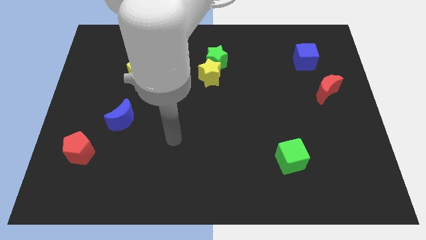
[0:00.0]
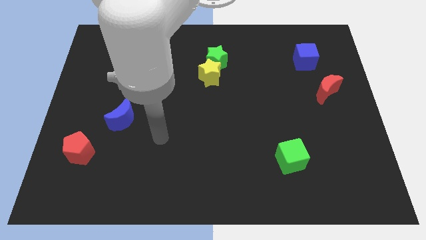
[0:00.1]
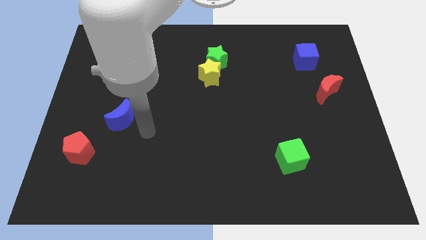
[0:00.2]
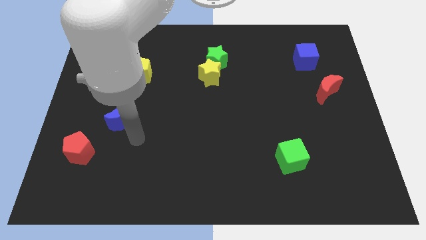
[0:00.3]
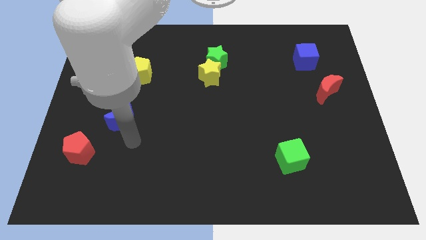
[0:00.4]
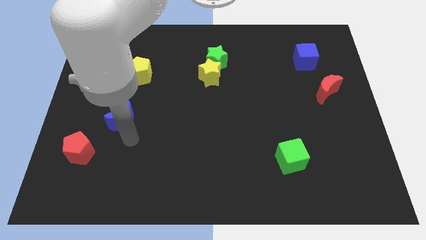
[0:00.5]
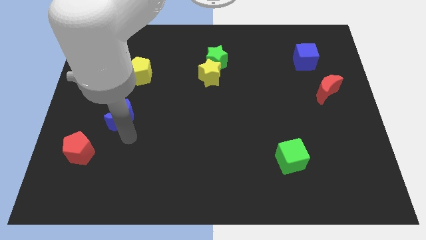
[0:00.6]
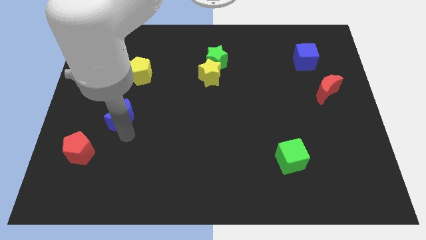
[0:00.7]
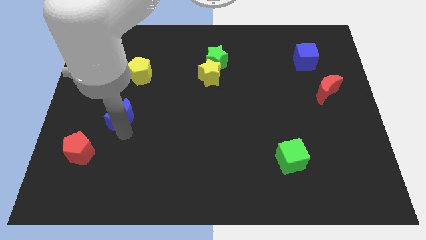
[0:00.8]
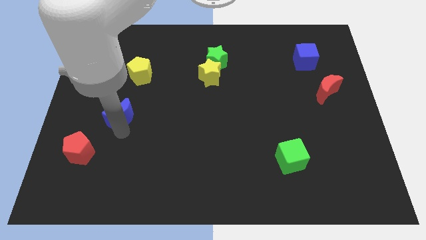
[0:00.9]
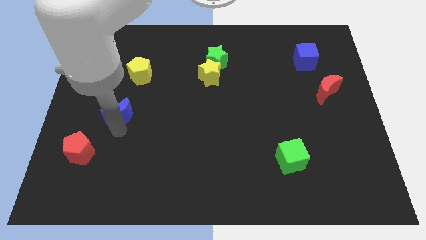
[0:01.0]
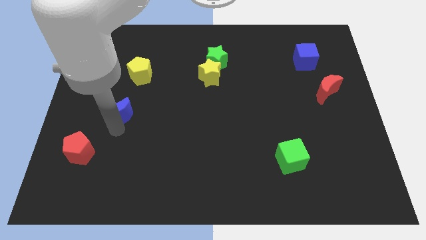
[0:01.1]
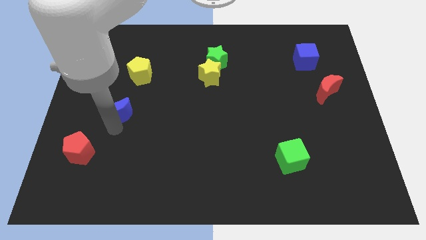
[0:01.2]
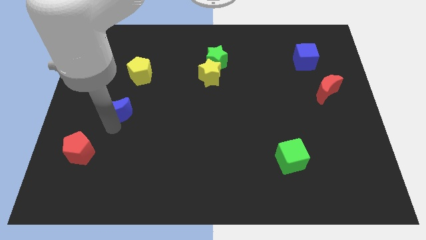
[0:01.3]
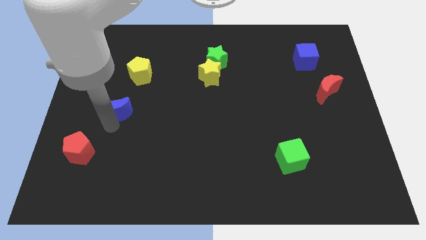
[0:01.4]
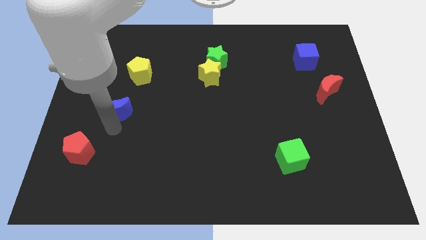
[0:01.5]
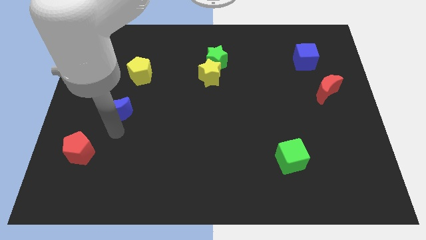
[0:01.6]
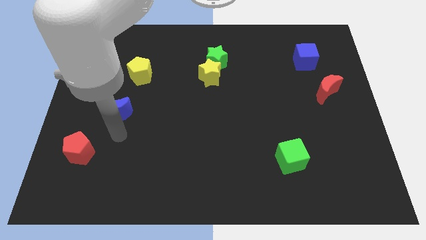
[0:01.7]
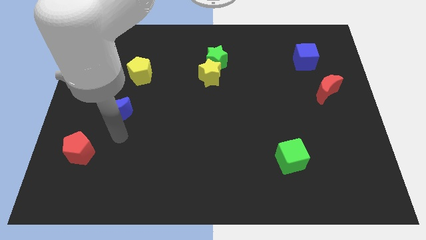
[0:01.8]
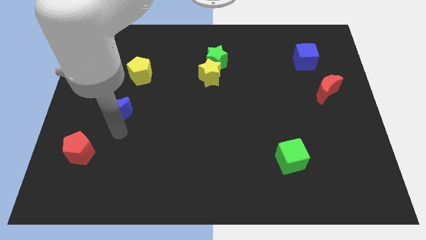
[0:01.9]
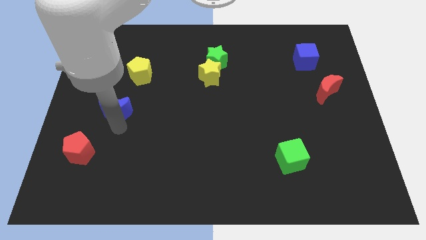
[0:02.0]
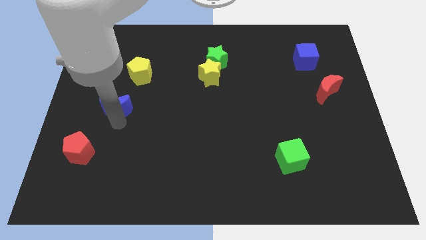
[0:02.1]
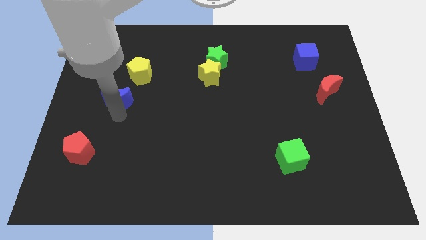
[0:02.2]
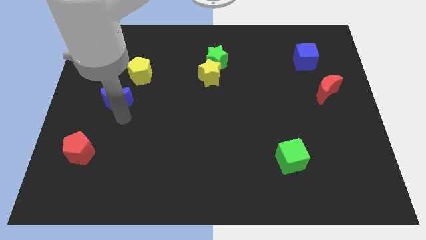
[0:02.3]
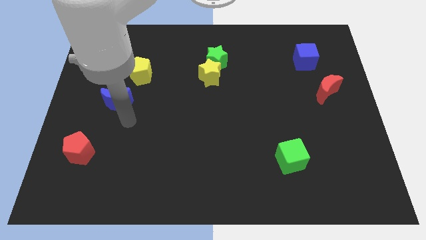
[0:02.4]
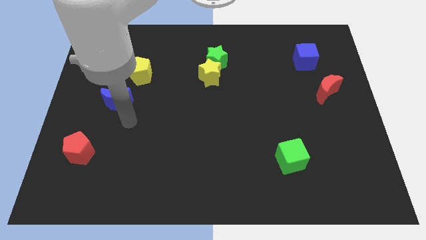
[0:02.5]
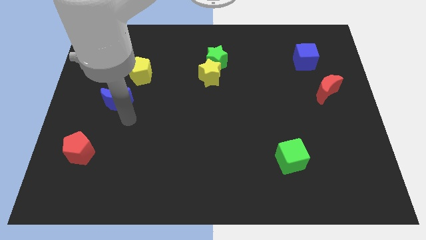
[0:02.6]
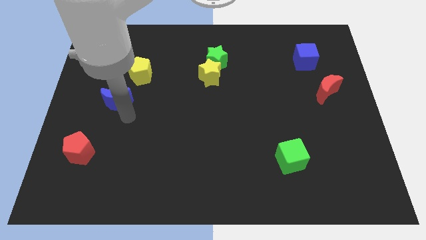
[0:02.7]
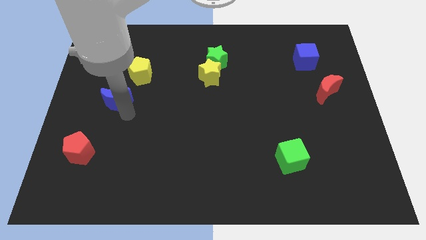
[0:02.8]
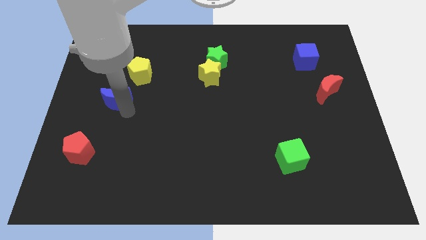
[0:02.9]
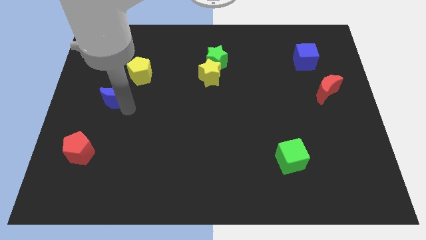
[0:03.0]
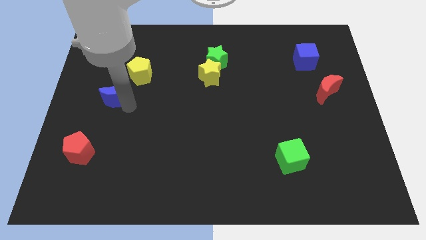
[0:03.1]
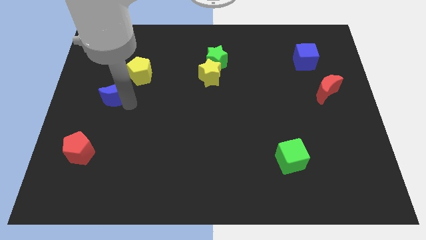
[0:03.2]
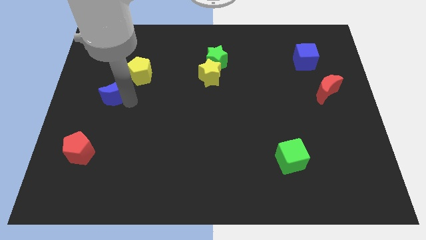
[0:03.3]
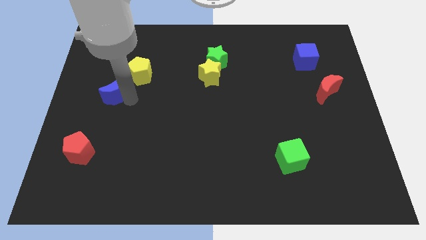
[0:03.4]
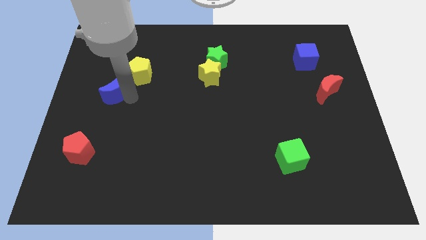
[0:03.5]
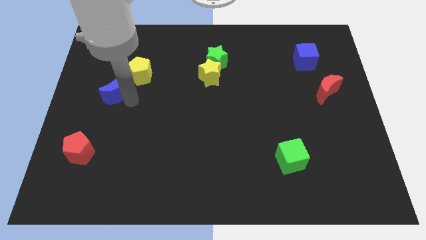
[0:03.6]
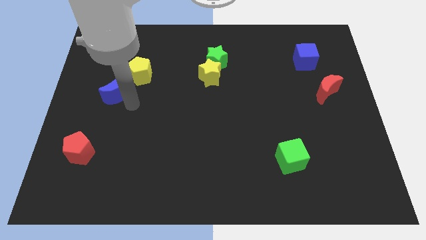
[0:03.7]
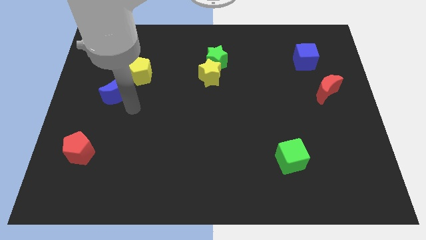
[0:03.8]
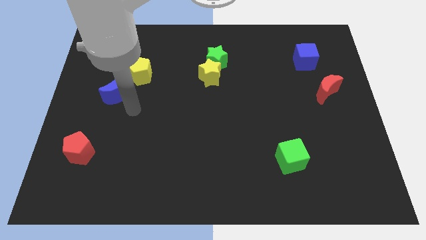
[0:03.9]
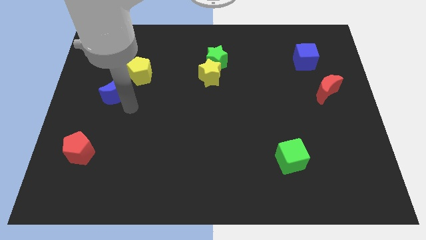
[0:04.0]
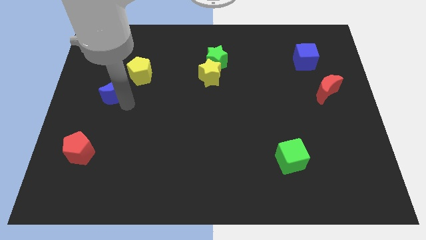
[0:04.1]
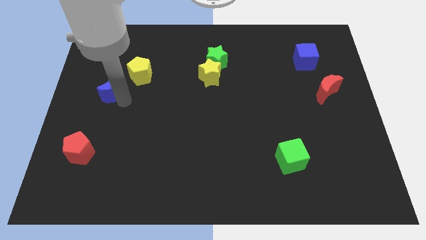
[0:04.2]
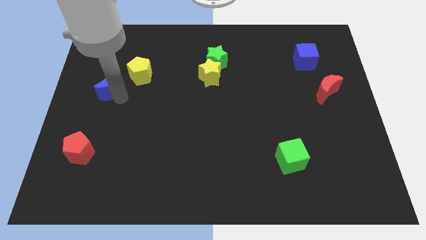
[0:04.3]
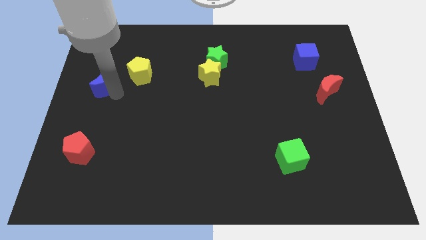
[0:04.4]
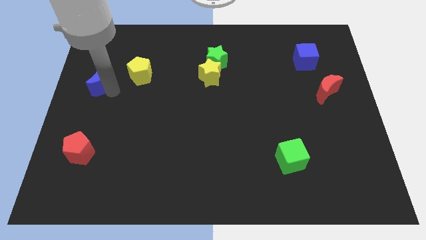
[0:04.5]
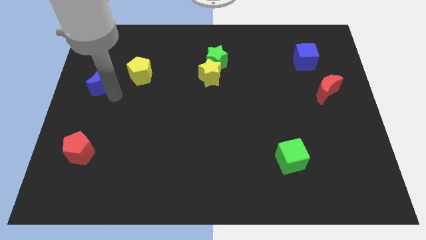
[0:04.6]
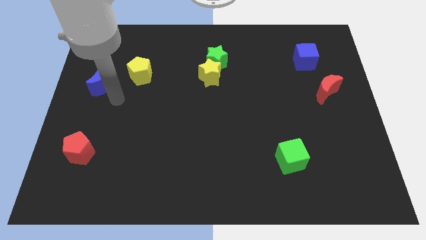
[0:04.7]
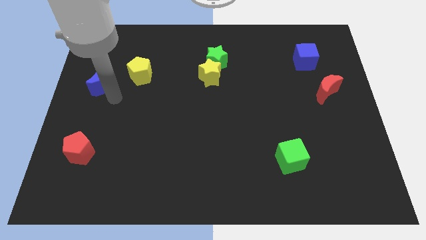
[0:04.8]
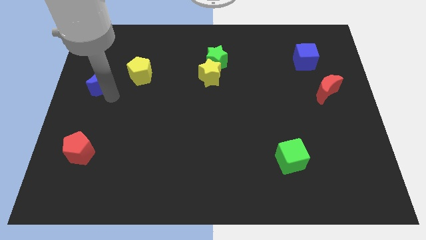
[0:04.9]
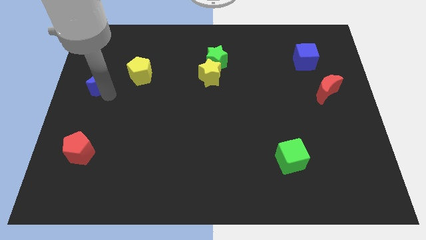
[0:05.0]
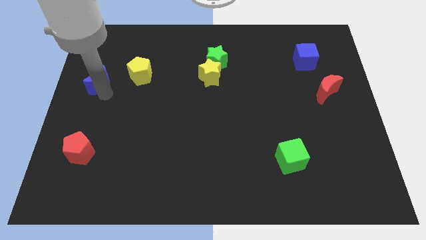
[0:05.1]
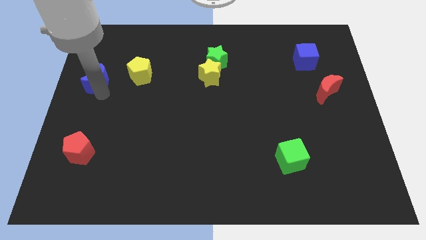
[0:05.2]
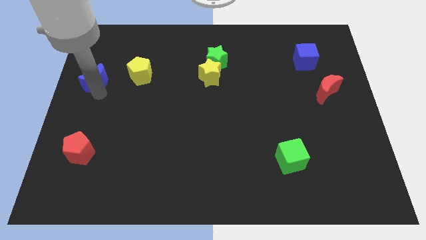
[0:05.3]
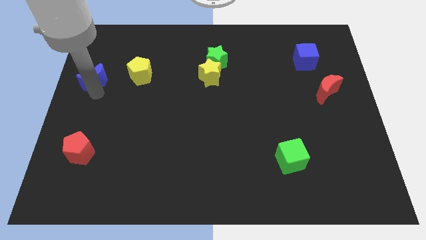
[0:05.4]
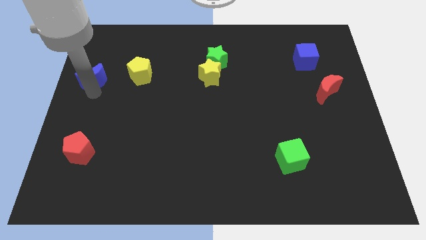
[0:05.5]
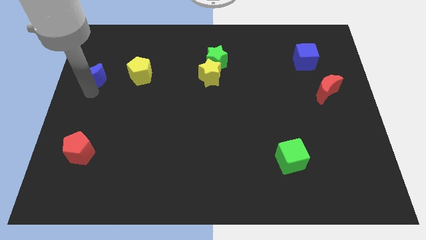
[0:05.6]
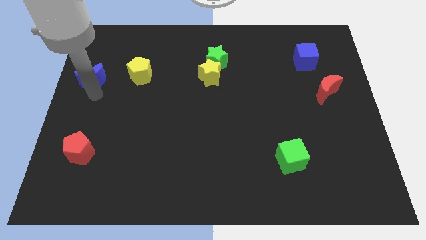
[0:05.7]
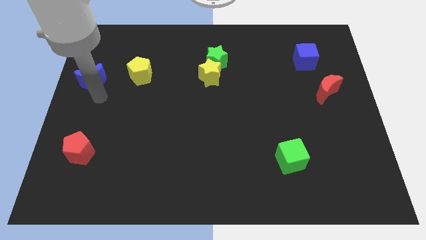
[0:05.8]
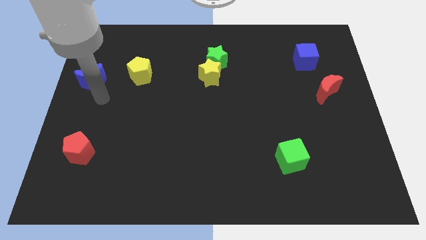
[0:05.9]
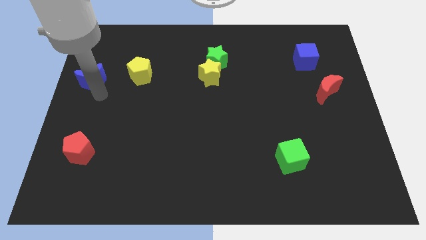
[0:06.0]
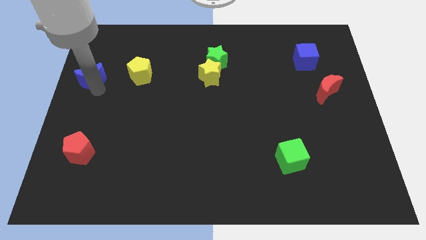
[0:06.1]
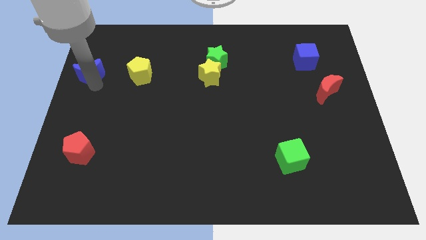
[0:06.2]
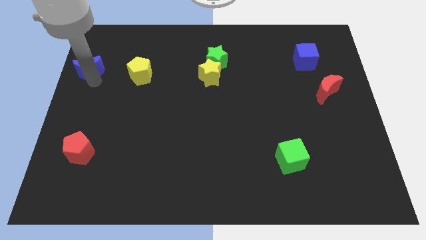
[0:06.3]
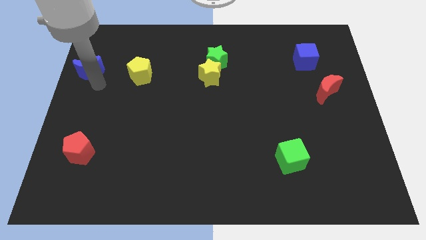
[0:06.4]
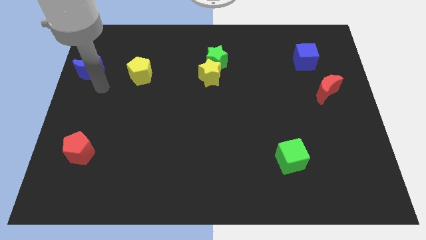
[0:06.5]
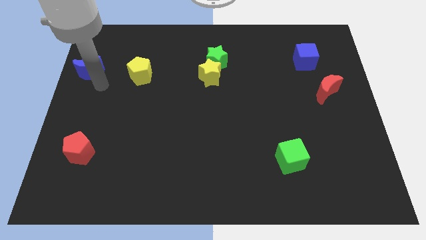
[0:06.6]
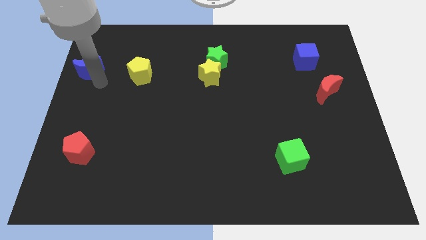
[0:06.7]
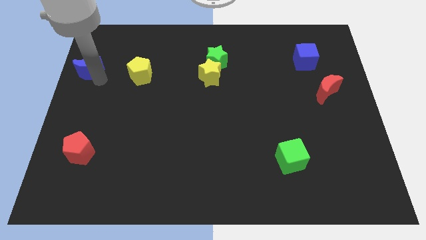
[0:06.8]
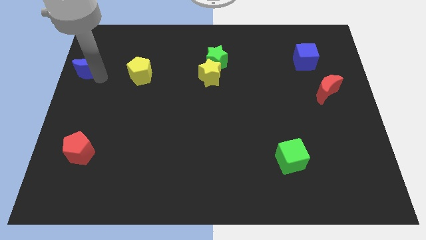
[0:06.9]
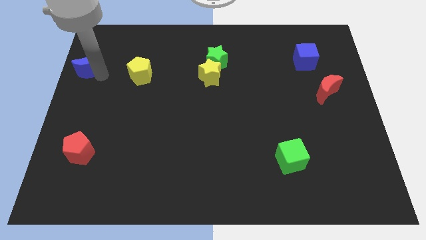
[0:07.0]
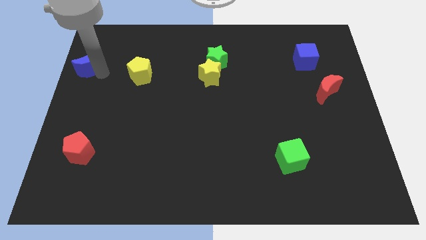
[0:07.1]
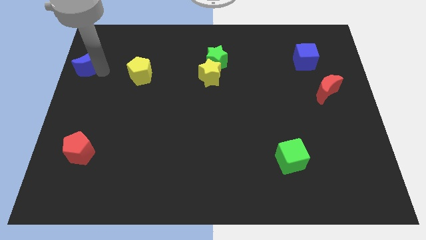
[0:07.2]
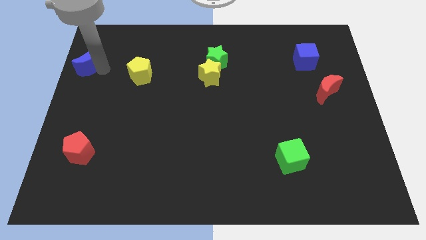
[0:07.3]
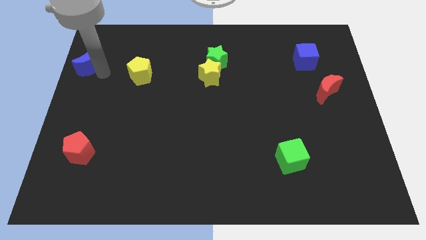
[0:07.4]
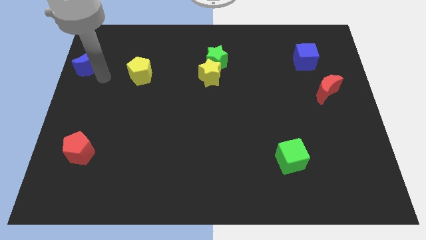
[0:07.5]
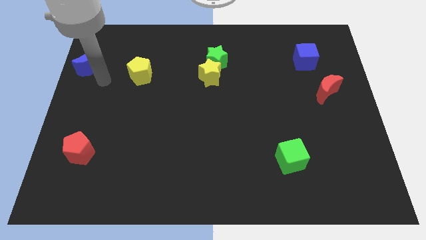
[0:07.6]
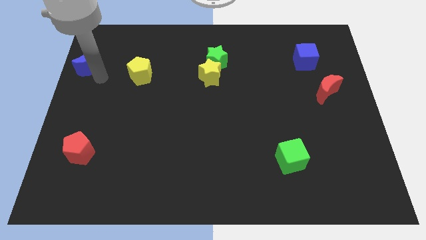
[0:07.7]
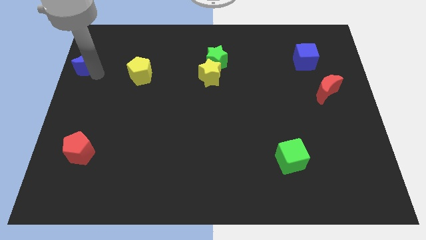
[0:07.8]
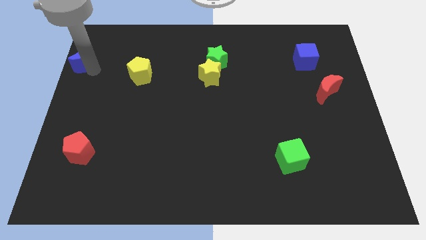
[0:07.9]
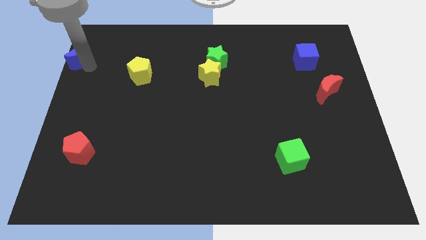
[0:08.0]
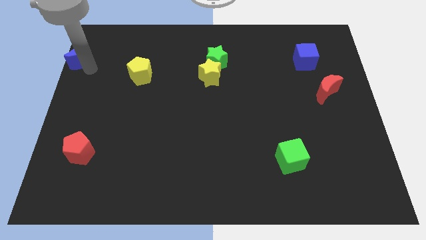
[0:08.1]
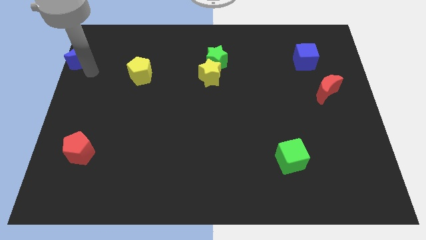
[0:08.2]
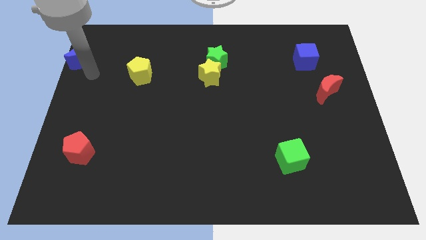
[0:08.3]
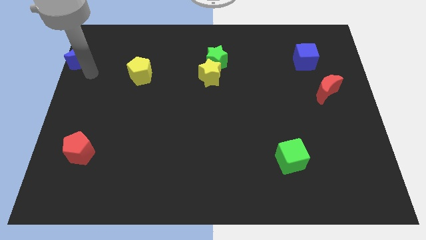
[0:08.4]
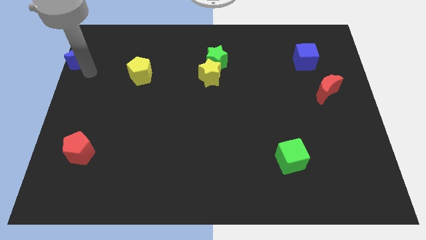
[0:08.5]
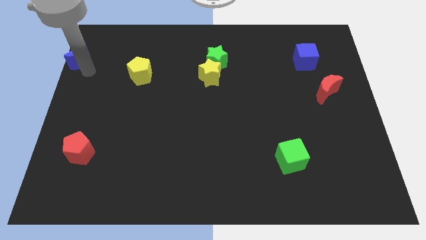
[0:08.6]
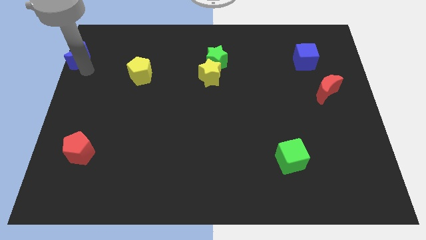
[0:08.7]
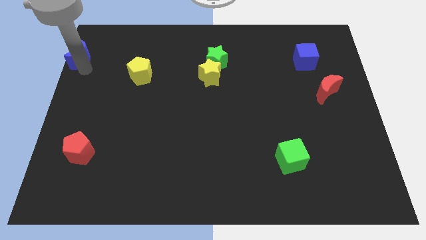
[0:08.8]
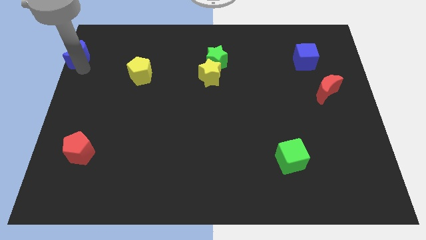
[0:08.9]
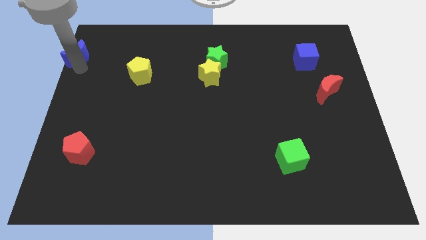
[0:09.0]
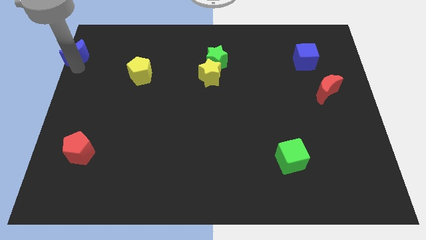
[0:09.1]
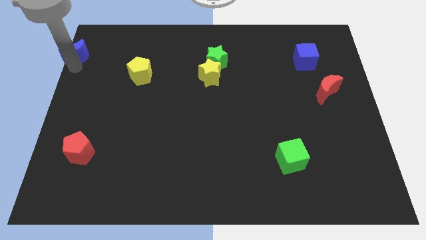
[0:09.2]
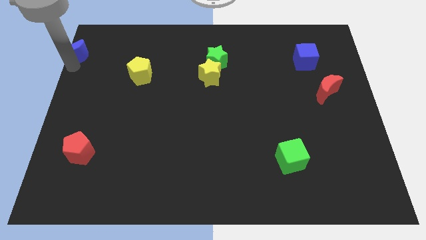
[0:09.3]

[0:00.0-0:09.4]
put the blue moon to the top left
